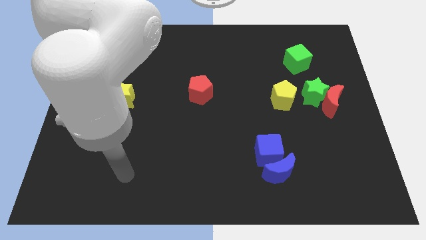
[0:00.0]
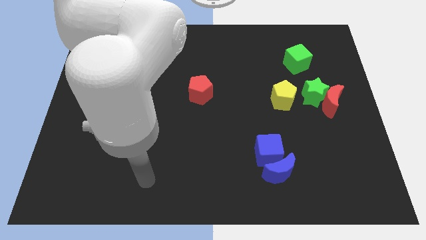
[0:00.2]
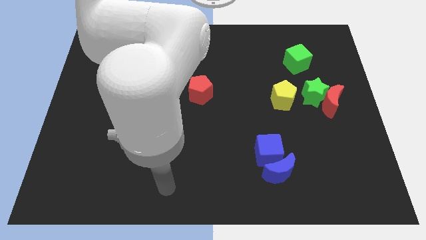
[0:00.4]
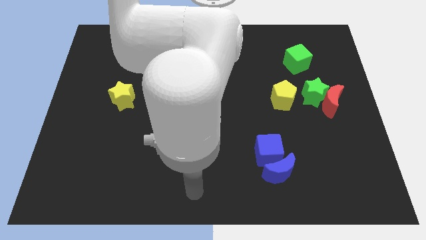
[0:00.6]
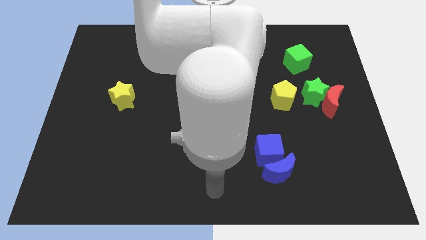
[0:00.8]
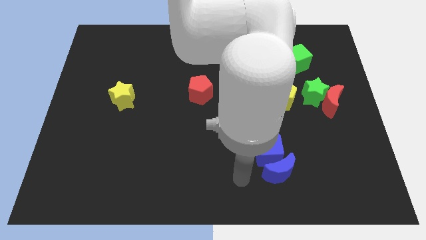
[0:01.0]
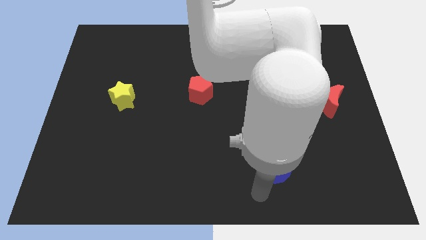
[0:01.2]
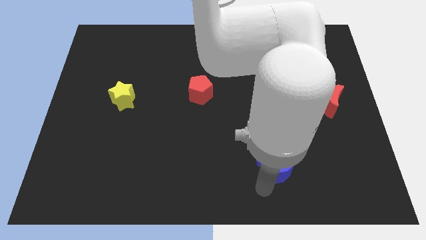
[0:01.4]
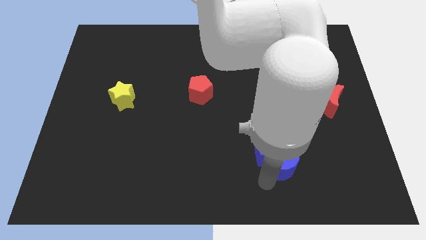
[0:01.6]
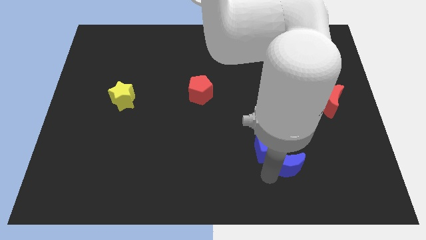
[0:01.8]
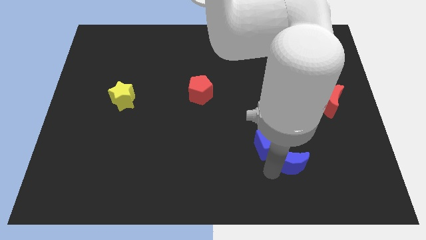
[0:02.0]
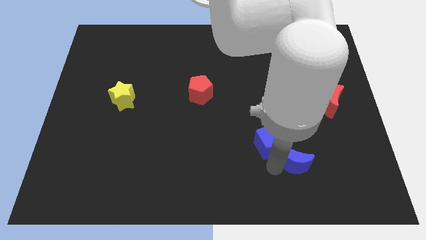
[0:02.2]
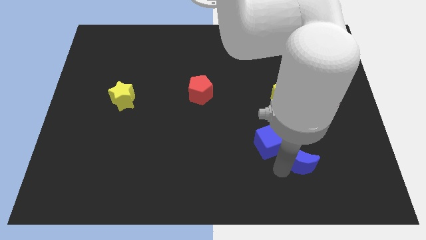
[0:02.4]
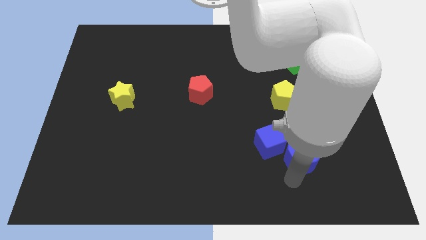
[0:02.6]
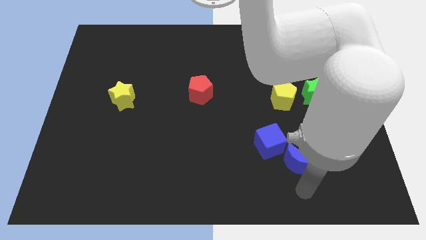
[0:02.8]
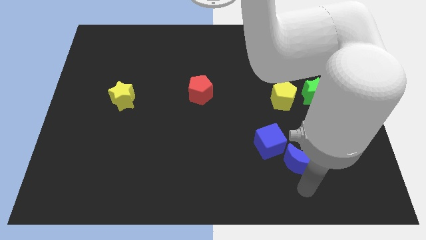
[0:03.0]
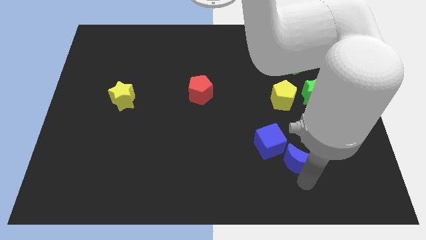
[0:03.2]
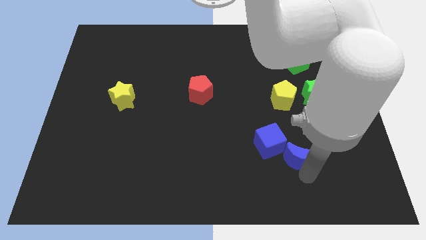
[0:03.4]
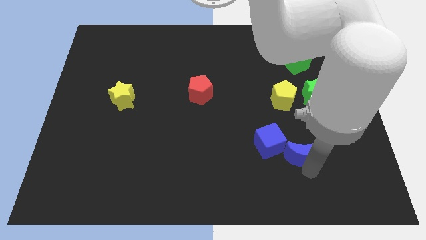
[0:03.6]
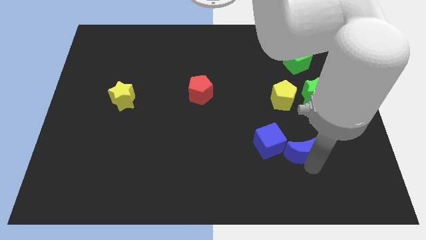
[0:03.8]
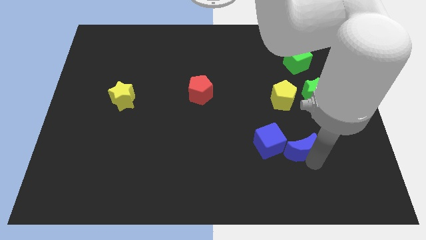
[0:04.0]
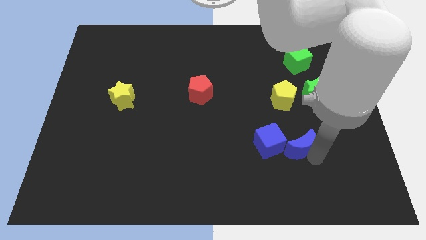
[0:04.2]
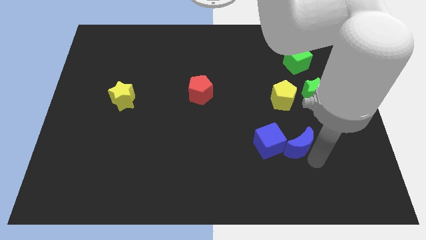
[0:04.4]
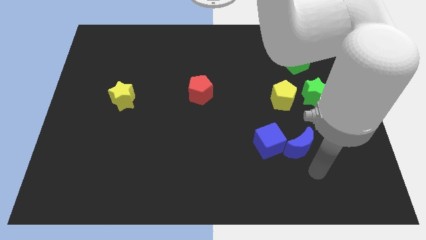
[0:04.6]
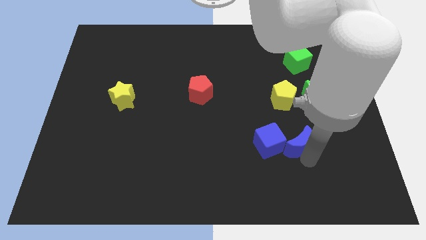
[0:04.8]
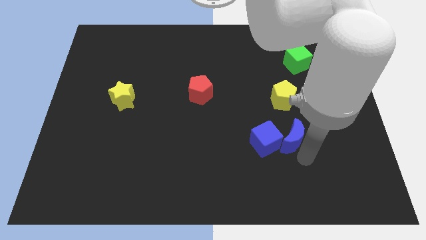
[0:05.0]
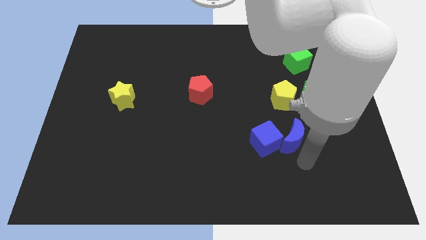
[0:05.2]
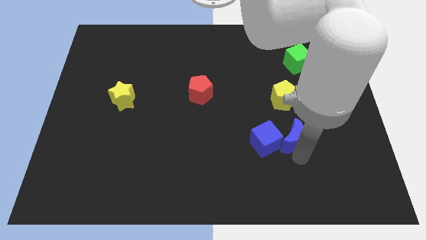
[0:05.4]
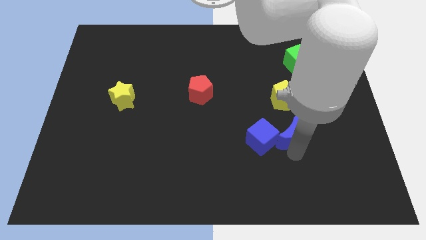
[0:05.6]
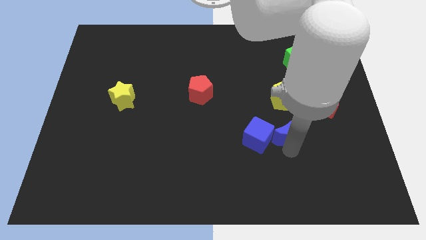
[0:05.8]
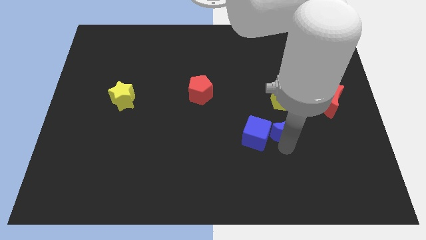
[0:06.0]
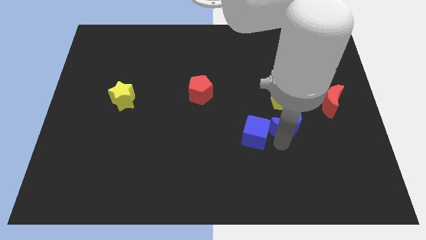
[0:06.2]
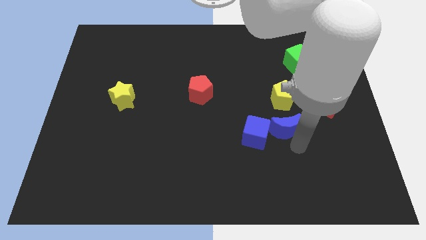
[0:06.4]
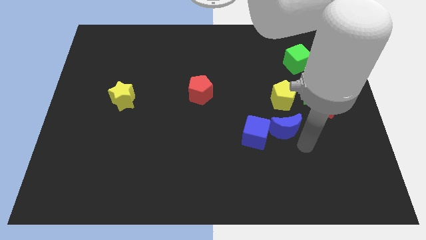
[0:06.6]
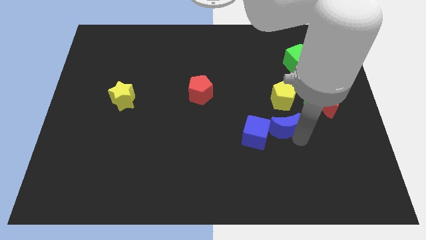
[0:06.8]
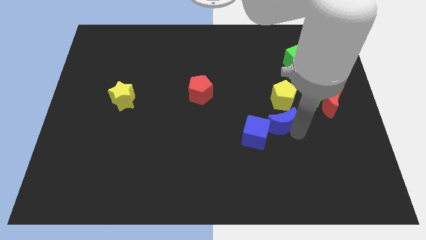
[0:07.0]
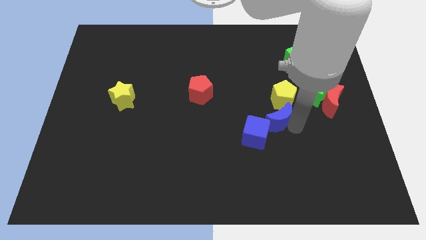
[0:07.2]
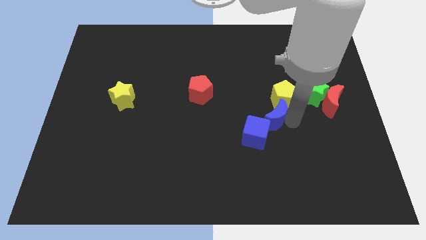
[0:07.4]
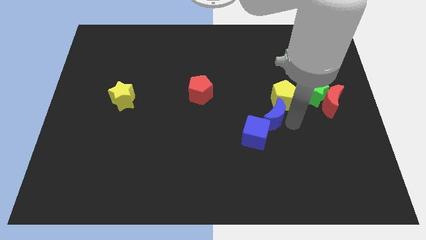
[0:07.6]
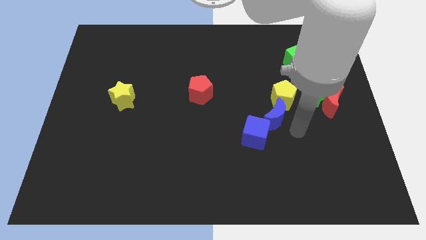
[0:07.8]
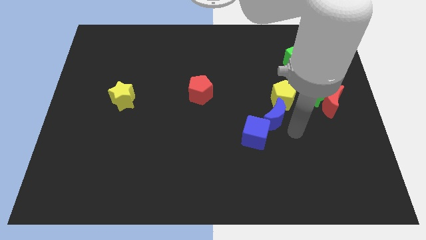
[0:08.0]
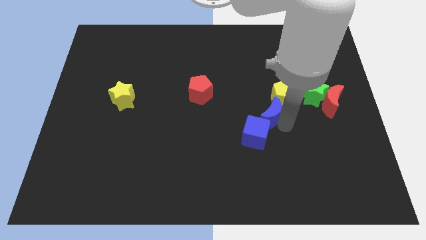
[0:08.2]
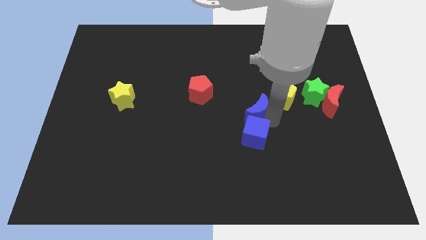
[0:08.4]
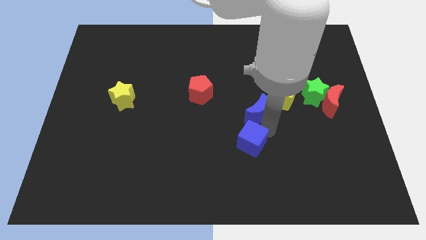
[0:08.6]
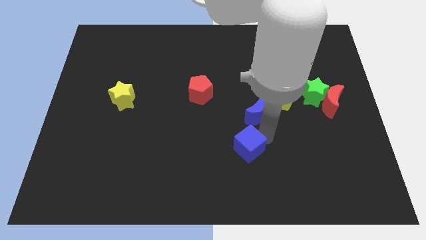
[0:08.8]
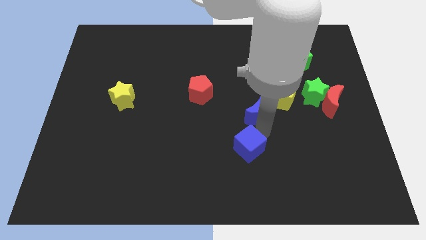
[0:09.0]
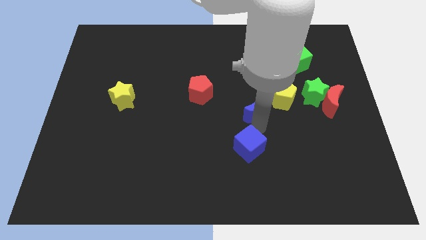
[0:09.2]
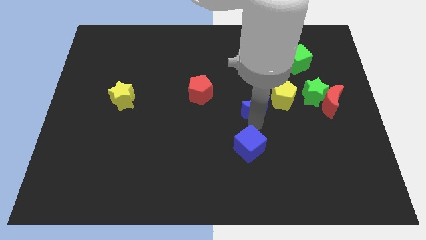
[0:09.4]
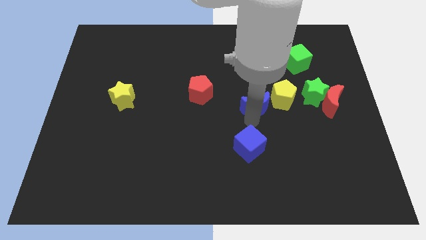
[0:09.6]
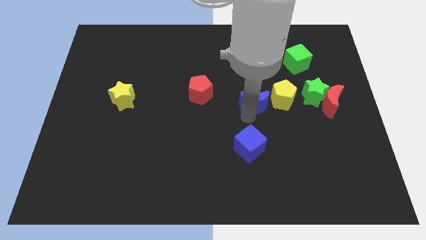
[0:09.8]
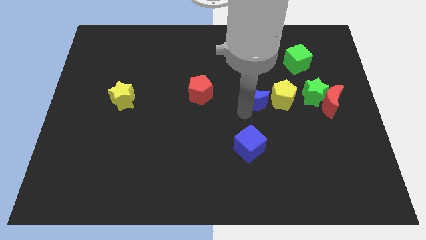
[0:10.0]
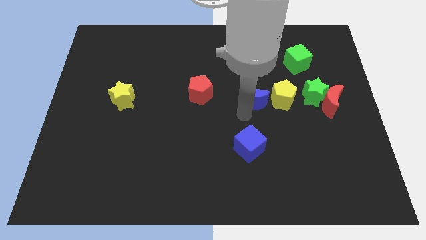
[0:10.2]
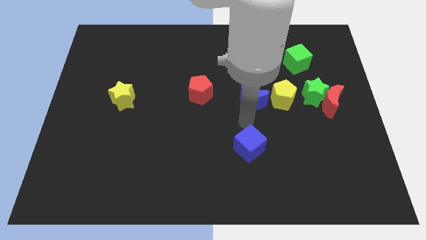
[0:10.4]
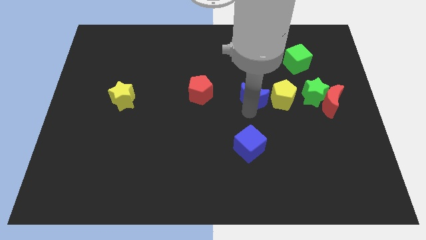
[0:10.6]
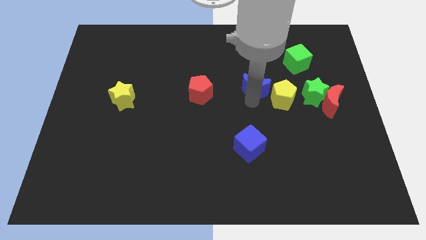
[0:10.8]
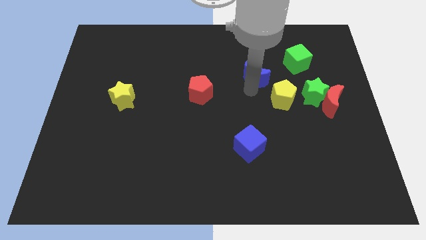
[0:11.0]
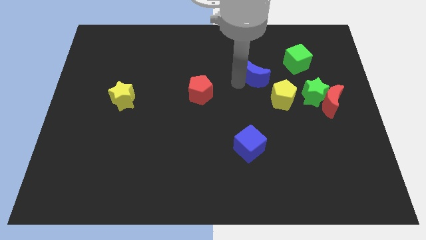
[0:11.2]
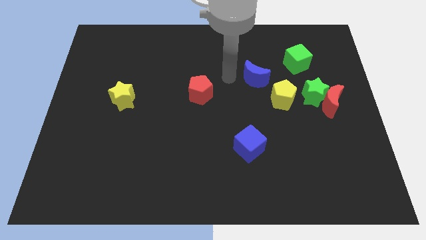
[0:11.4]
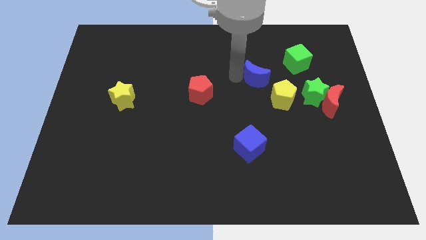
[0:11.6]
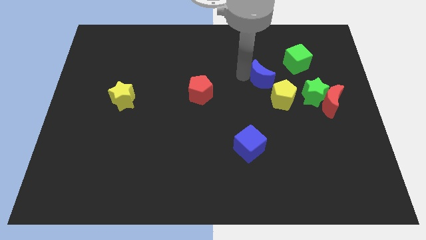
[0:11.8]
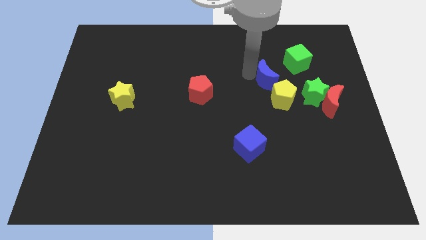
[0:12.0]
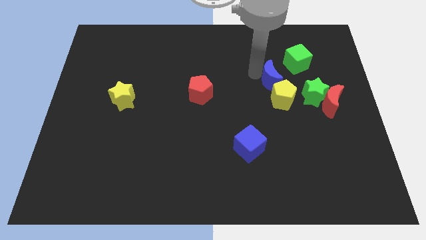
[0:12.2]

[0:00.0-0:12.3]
slide the blue moon to the top left side of the green star

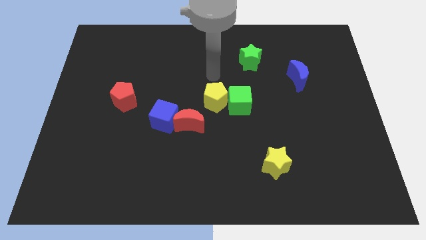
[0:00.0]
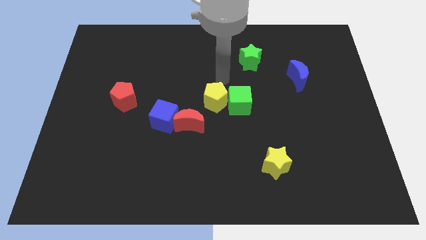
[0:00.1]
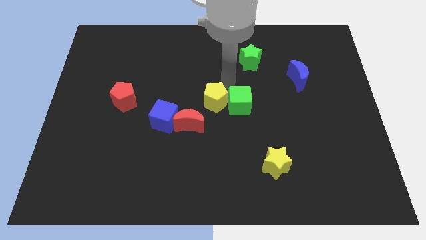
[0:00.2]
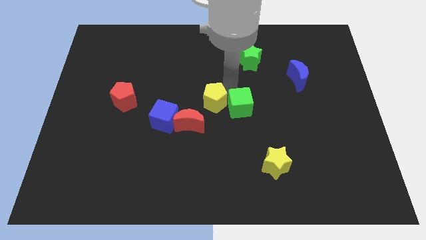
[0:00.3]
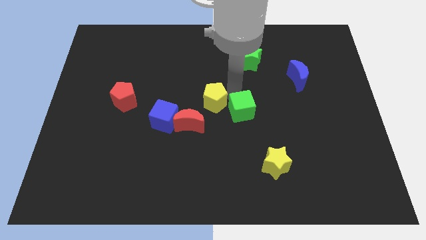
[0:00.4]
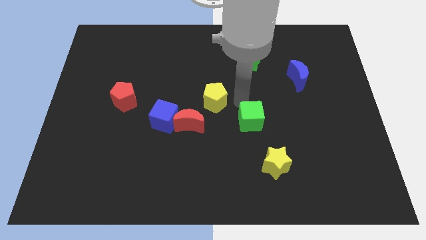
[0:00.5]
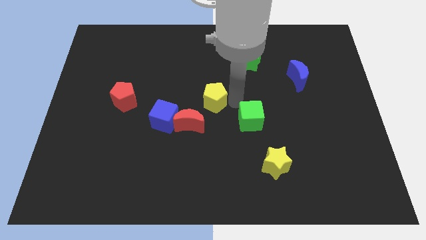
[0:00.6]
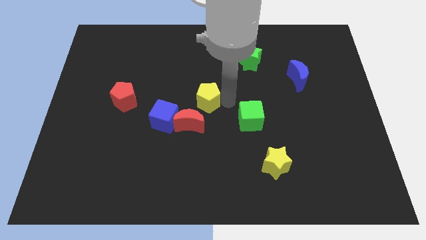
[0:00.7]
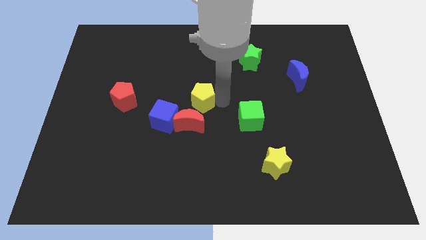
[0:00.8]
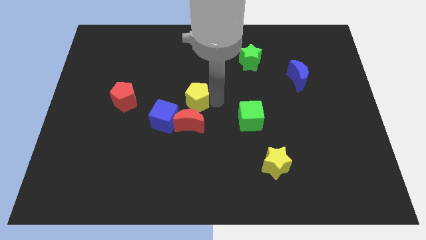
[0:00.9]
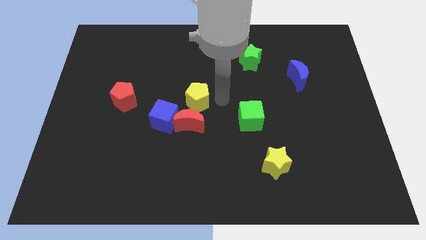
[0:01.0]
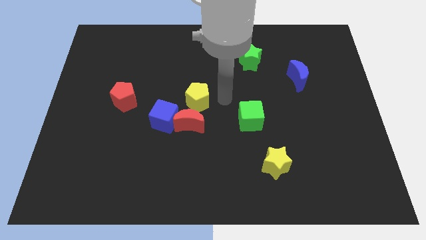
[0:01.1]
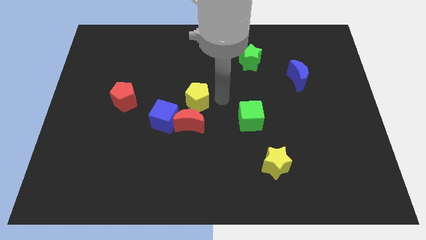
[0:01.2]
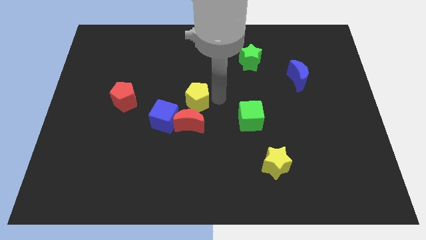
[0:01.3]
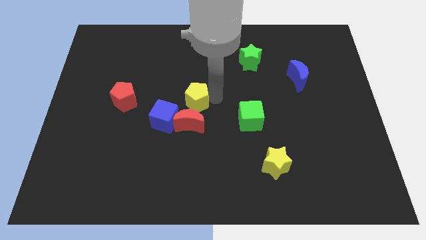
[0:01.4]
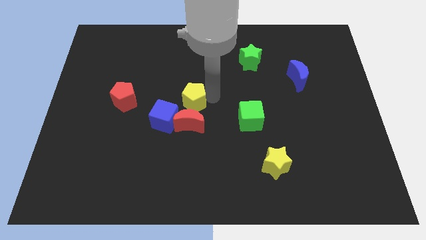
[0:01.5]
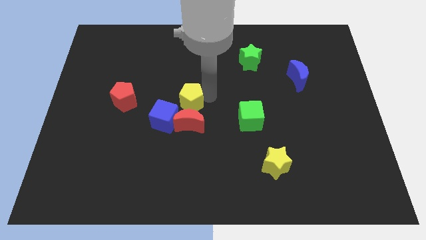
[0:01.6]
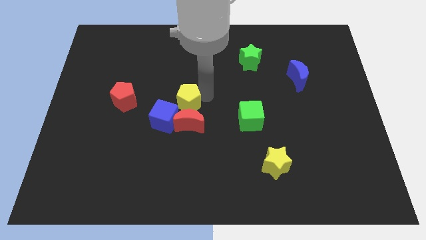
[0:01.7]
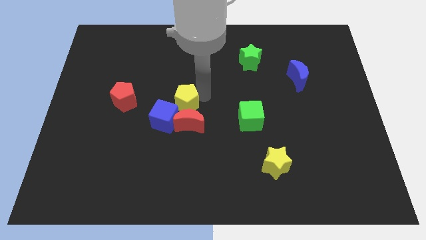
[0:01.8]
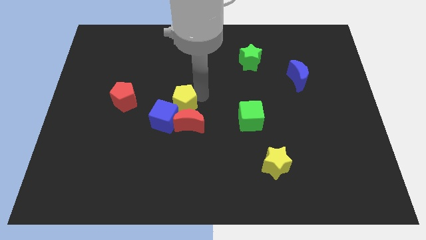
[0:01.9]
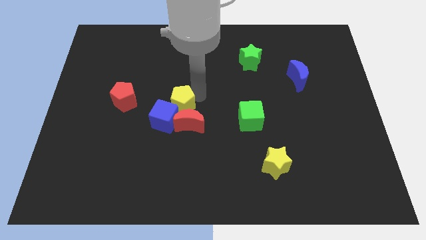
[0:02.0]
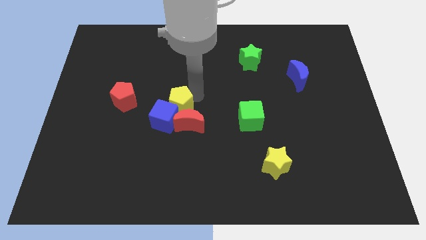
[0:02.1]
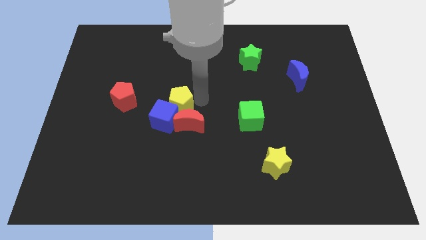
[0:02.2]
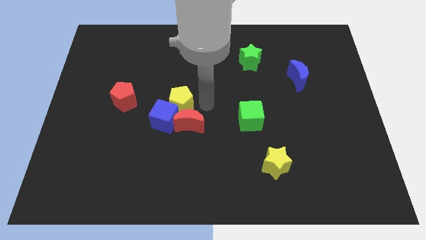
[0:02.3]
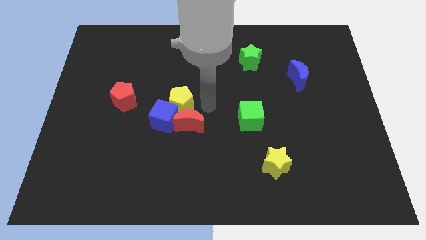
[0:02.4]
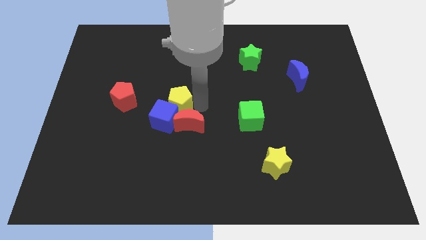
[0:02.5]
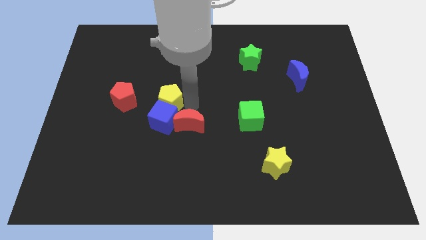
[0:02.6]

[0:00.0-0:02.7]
put the yellow pentagon to the top left of the blue cube
